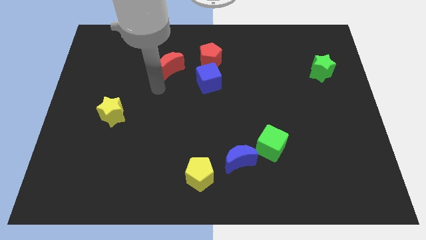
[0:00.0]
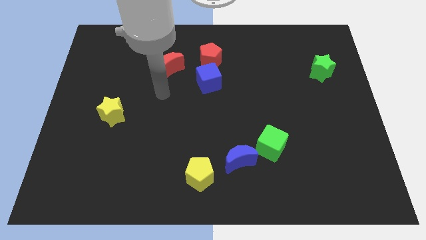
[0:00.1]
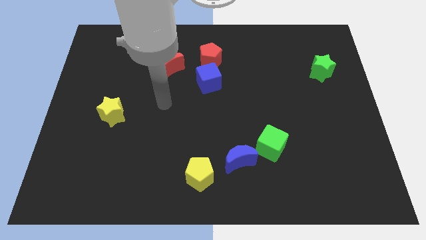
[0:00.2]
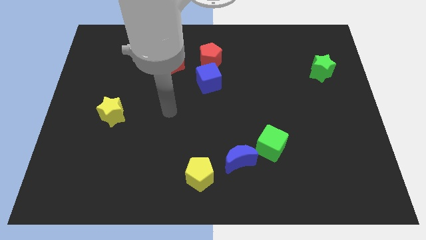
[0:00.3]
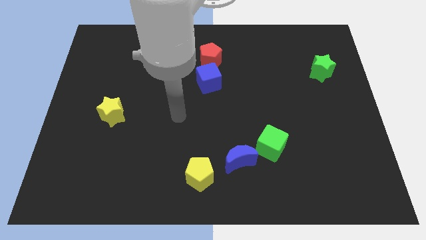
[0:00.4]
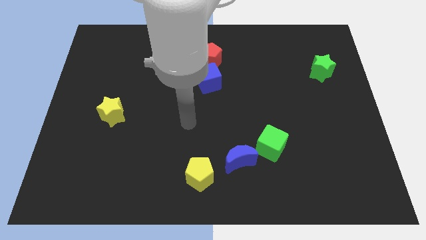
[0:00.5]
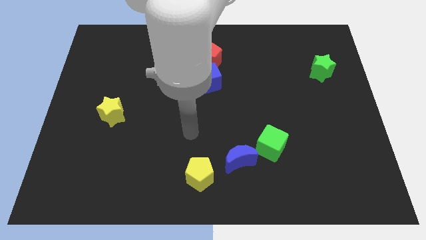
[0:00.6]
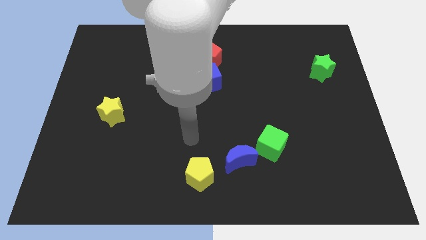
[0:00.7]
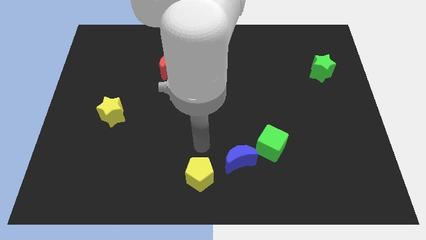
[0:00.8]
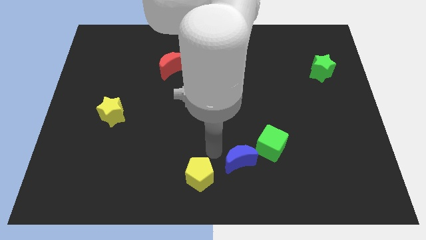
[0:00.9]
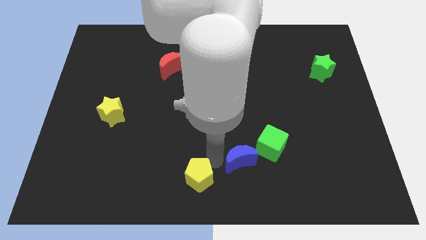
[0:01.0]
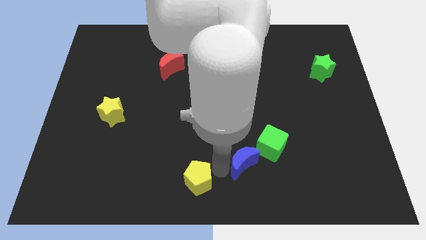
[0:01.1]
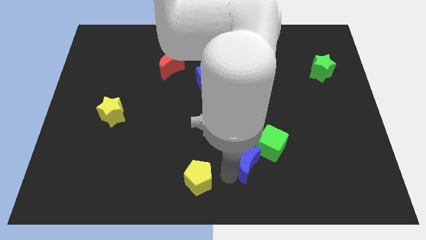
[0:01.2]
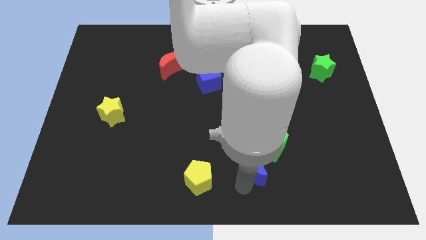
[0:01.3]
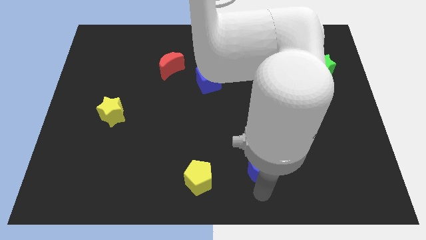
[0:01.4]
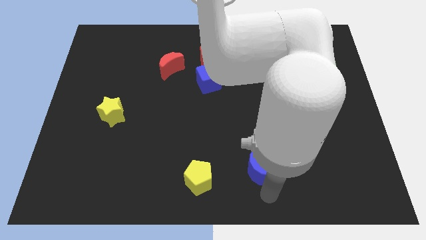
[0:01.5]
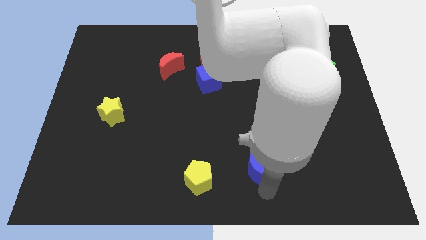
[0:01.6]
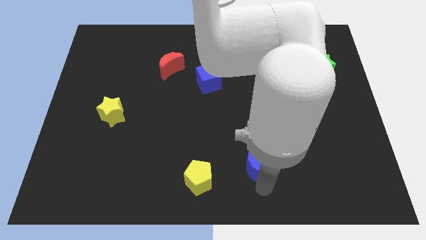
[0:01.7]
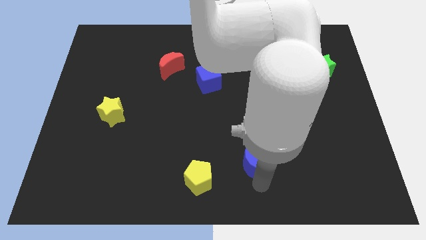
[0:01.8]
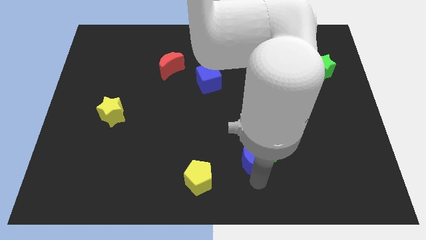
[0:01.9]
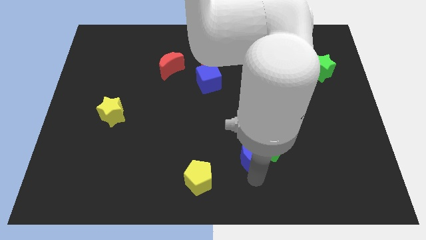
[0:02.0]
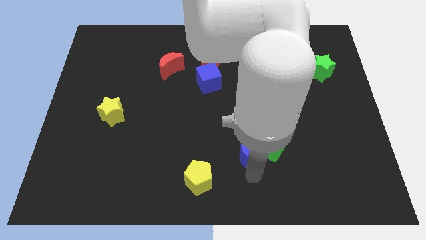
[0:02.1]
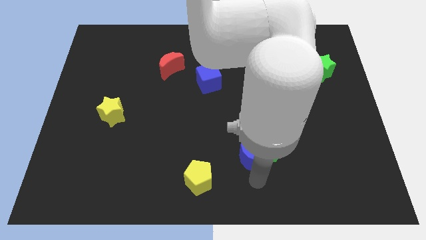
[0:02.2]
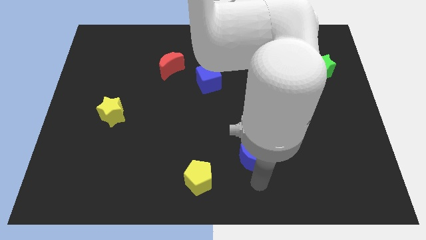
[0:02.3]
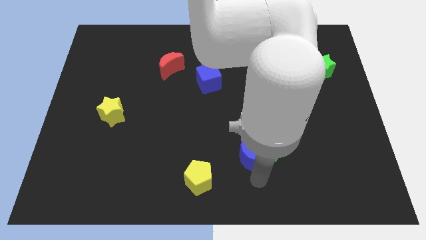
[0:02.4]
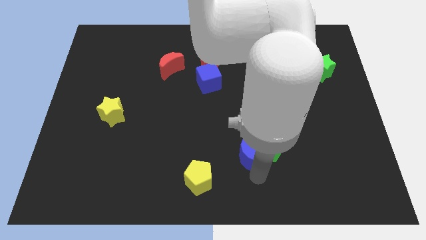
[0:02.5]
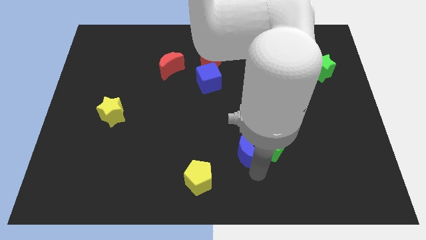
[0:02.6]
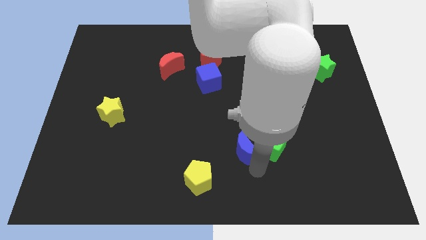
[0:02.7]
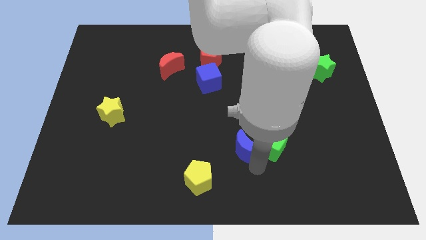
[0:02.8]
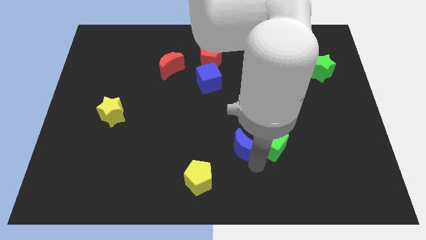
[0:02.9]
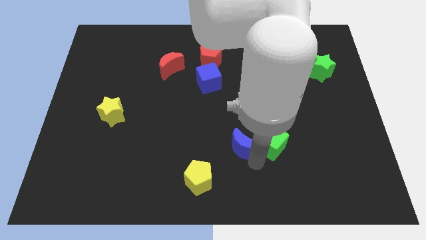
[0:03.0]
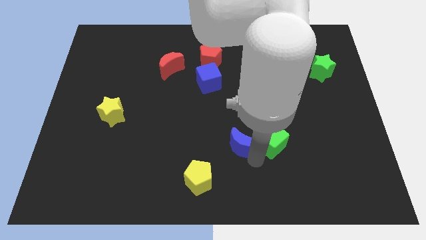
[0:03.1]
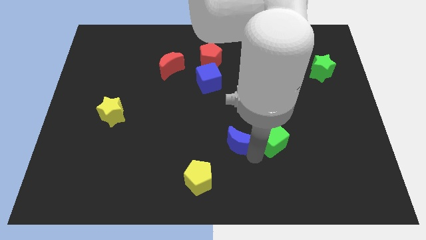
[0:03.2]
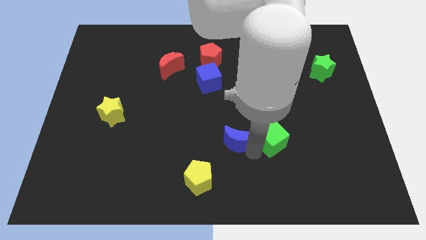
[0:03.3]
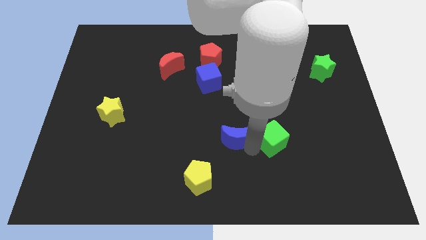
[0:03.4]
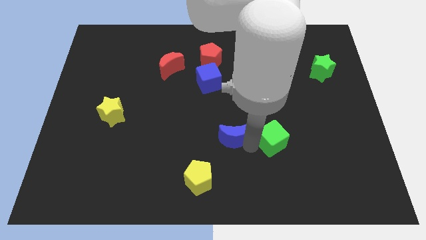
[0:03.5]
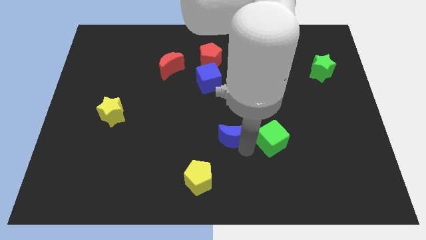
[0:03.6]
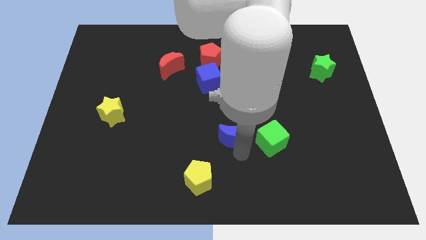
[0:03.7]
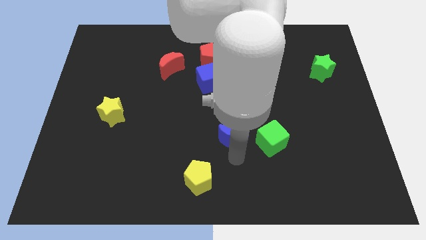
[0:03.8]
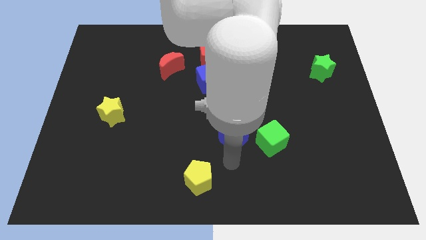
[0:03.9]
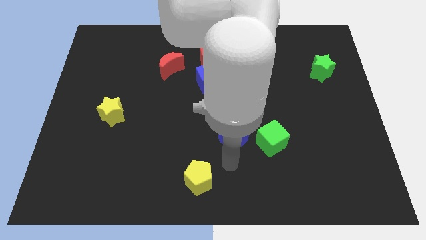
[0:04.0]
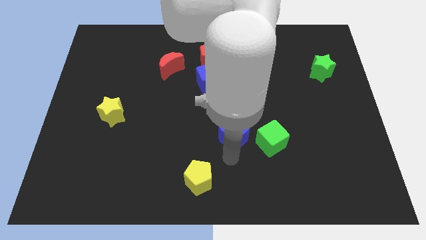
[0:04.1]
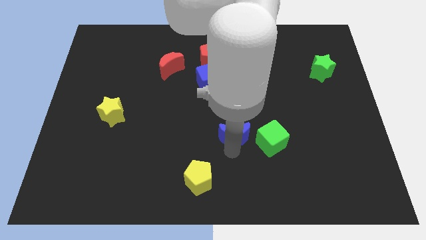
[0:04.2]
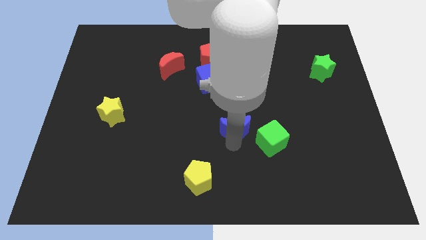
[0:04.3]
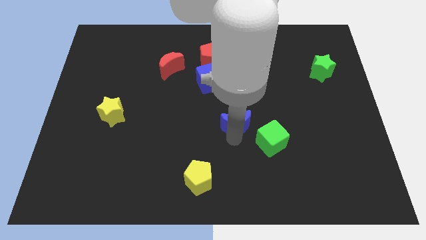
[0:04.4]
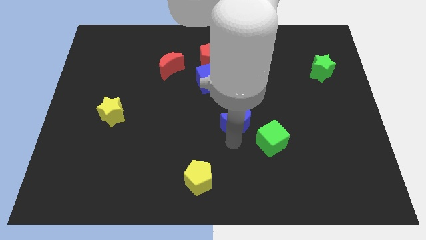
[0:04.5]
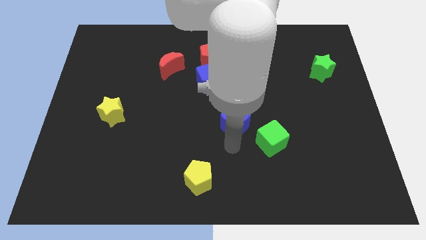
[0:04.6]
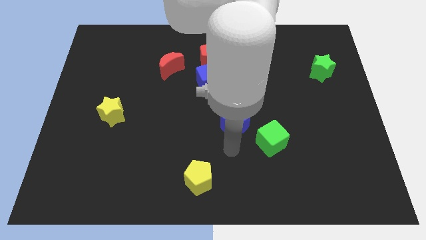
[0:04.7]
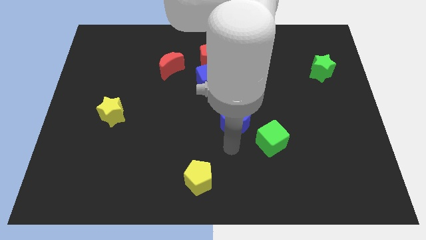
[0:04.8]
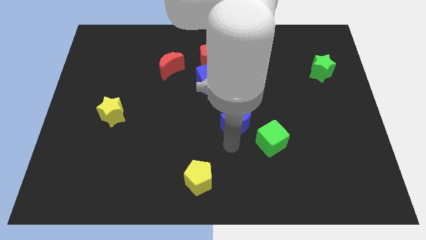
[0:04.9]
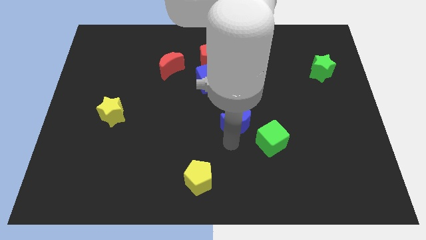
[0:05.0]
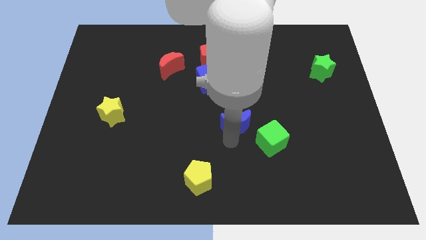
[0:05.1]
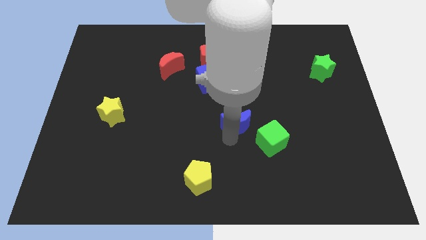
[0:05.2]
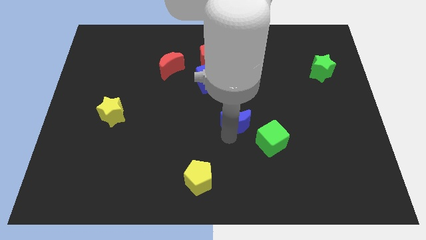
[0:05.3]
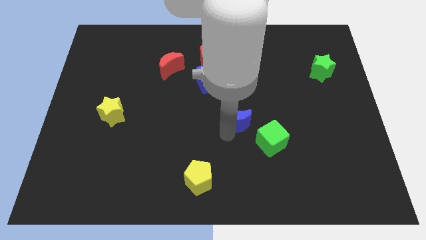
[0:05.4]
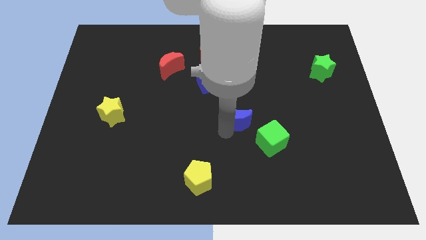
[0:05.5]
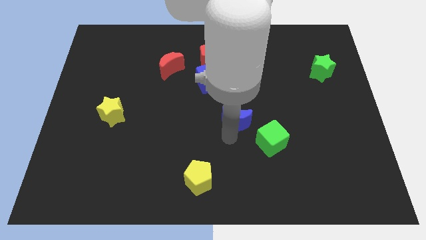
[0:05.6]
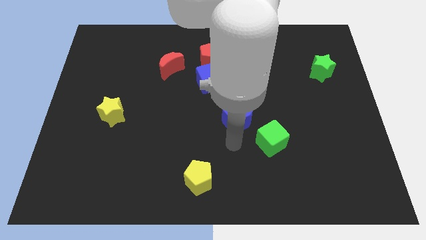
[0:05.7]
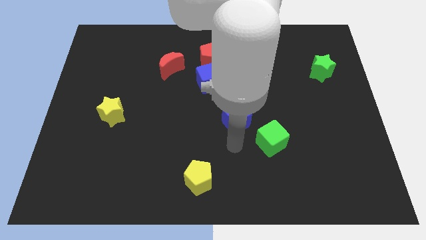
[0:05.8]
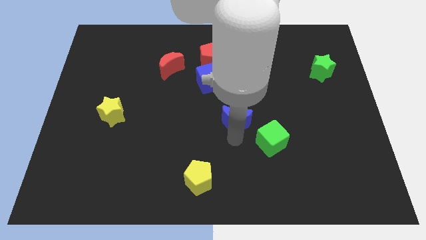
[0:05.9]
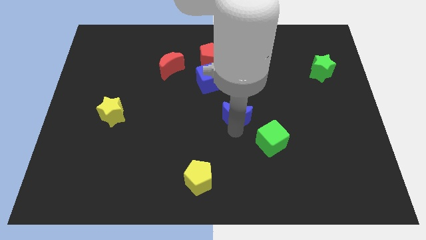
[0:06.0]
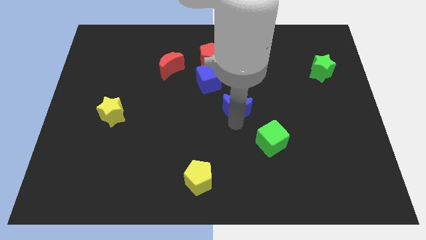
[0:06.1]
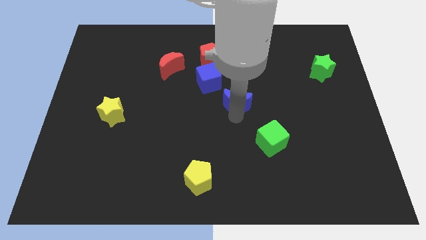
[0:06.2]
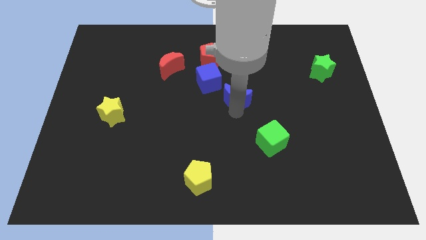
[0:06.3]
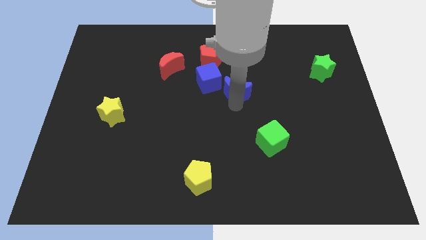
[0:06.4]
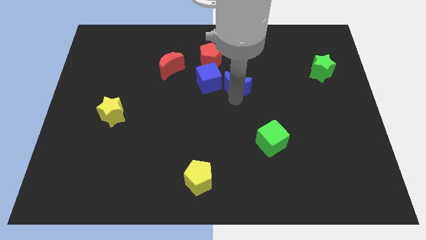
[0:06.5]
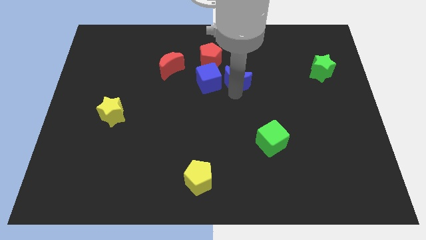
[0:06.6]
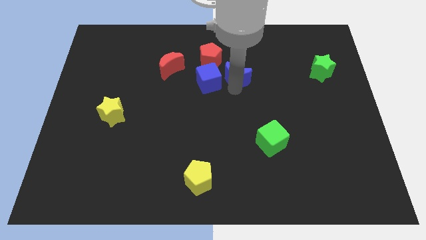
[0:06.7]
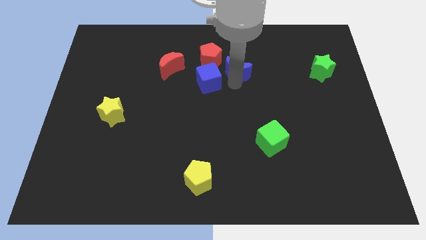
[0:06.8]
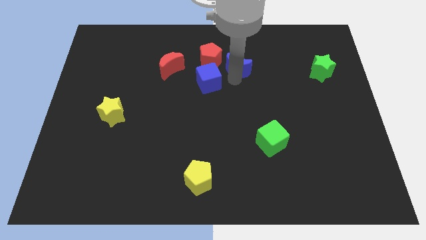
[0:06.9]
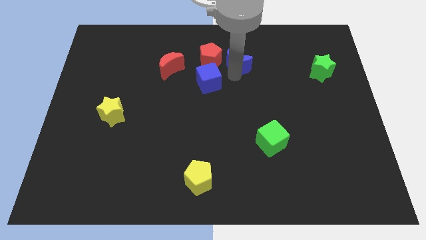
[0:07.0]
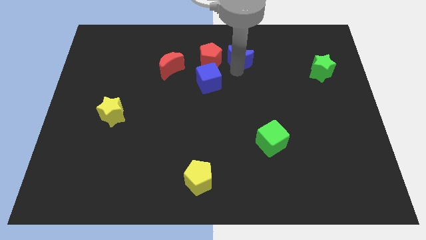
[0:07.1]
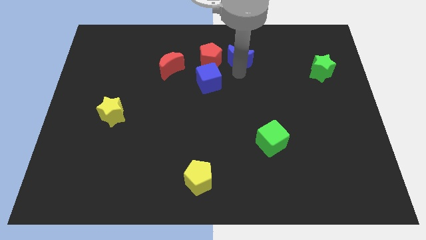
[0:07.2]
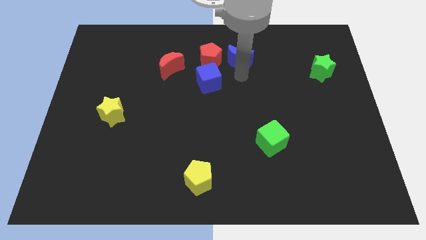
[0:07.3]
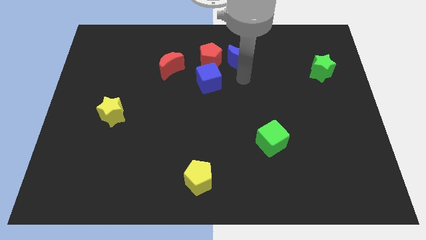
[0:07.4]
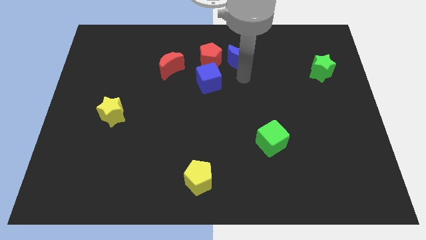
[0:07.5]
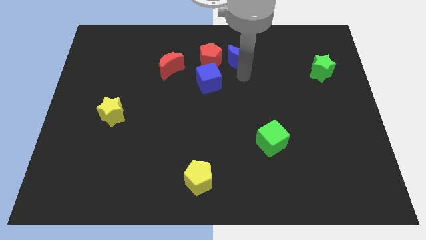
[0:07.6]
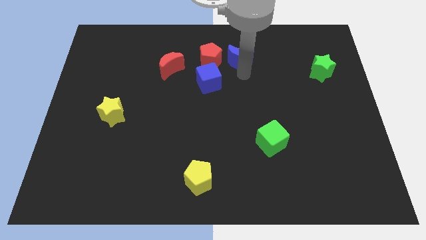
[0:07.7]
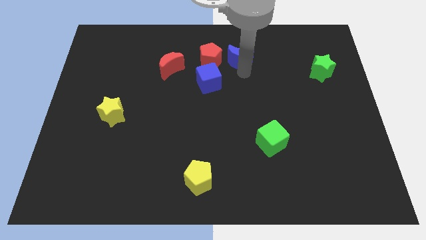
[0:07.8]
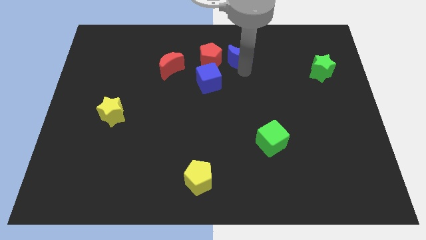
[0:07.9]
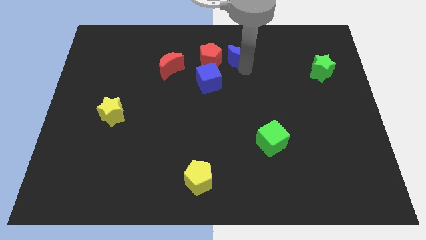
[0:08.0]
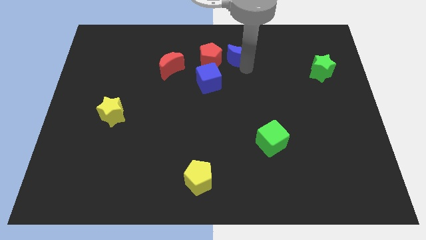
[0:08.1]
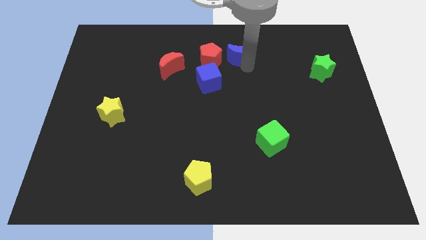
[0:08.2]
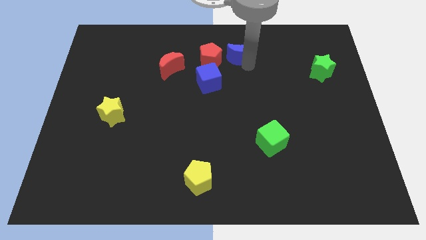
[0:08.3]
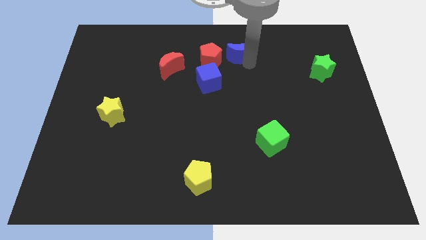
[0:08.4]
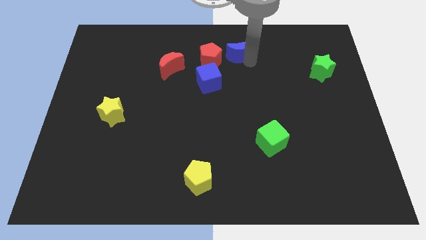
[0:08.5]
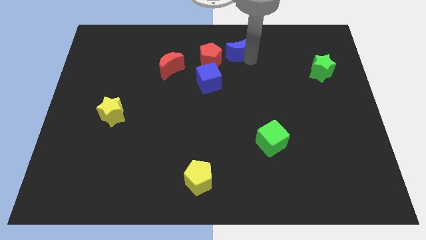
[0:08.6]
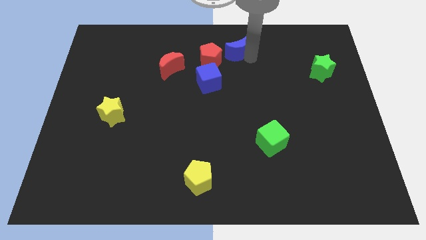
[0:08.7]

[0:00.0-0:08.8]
put the blue moon to the top
